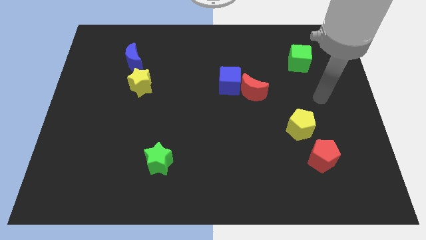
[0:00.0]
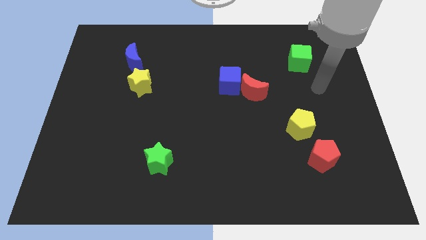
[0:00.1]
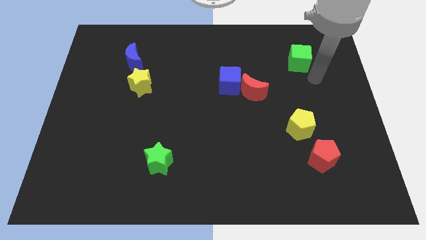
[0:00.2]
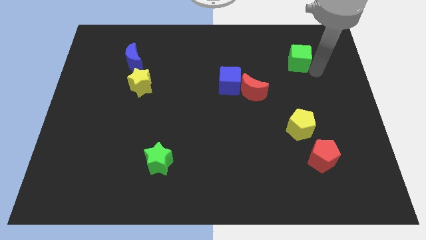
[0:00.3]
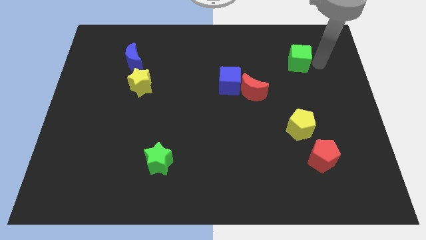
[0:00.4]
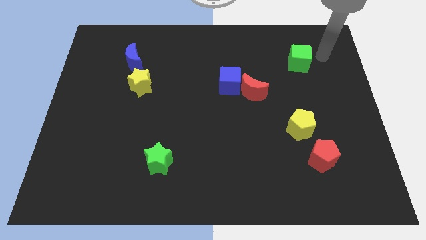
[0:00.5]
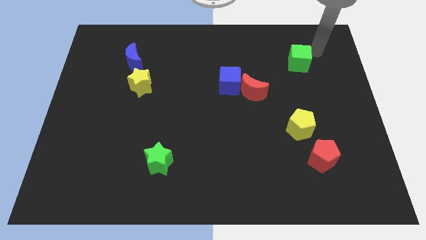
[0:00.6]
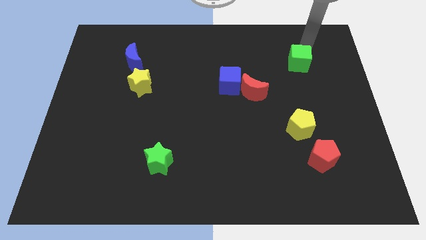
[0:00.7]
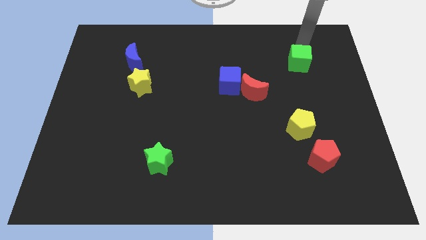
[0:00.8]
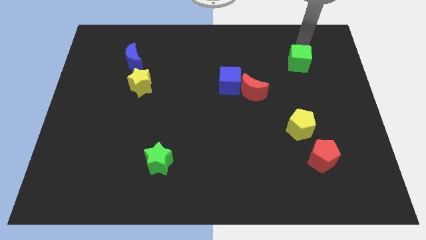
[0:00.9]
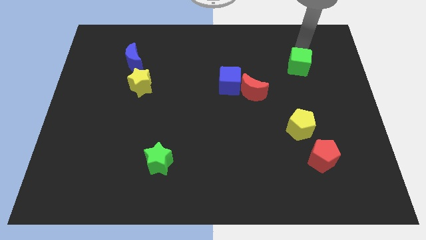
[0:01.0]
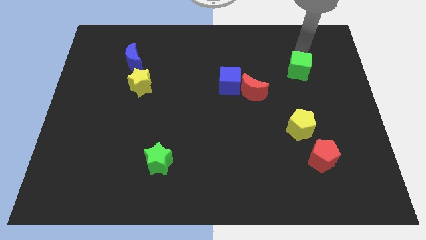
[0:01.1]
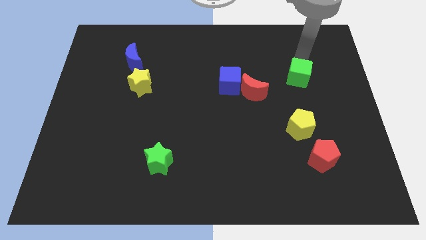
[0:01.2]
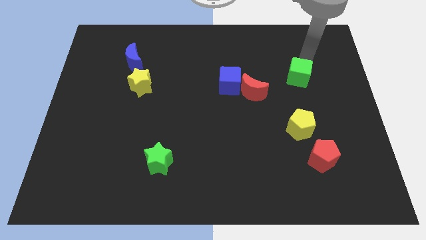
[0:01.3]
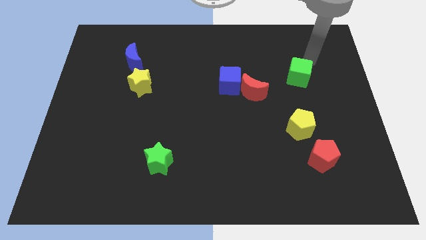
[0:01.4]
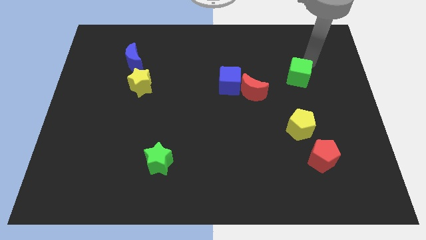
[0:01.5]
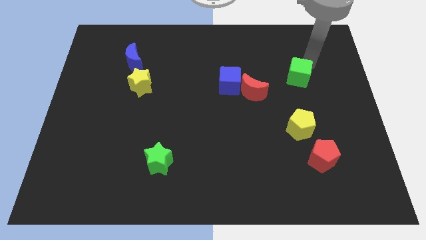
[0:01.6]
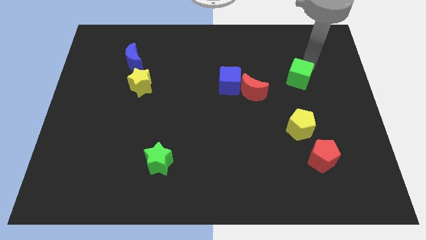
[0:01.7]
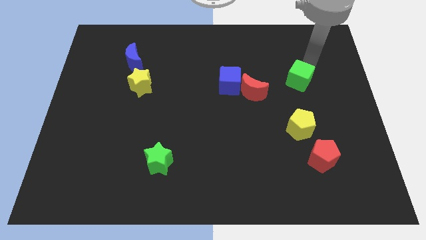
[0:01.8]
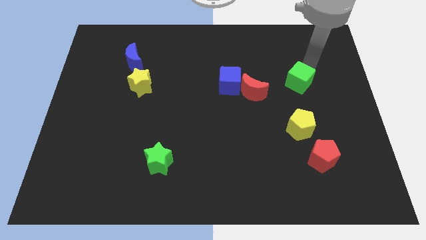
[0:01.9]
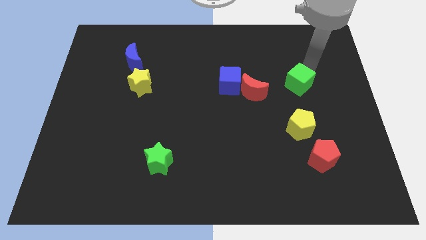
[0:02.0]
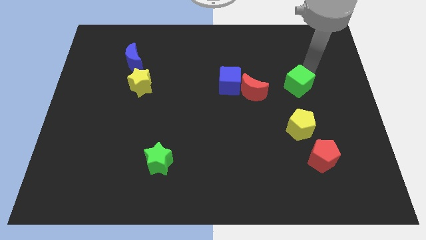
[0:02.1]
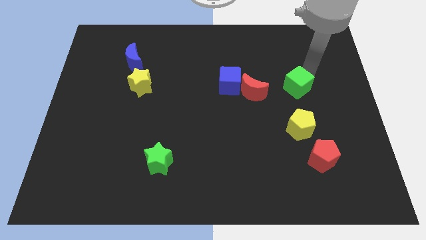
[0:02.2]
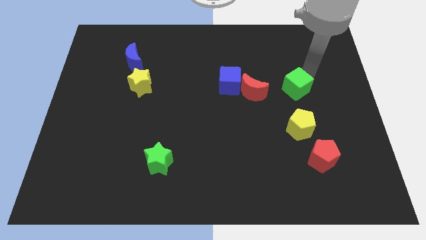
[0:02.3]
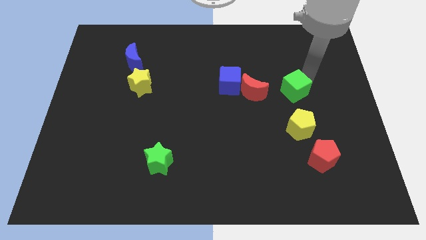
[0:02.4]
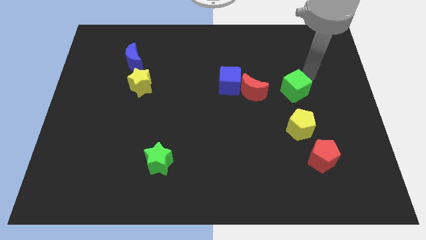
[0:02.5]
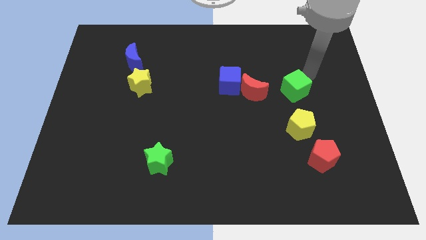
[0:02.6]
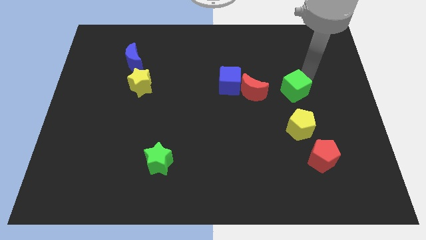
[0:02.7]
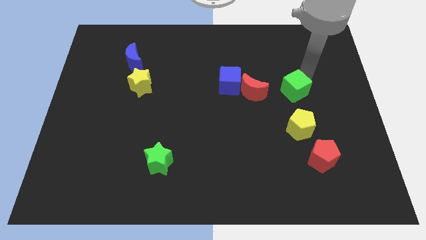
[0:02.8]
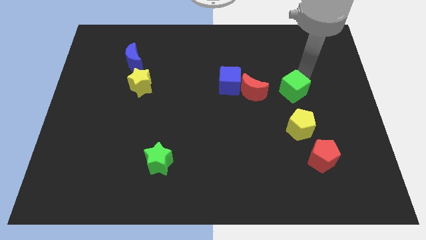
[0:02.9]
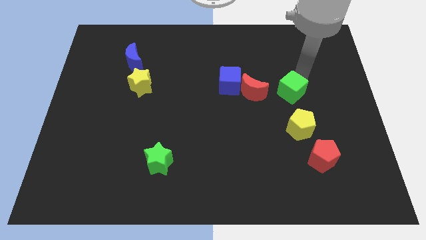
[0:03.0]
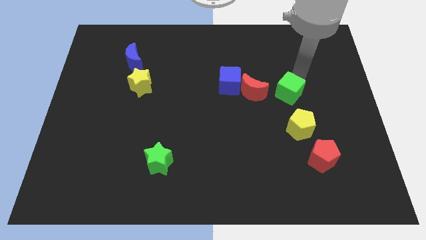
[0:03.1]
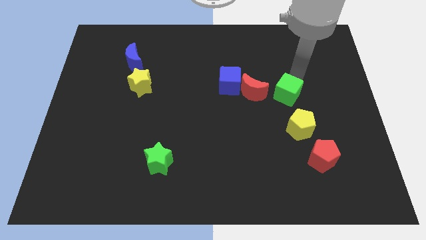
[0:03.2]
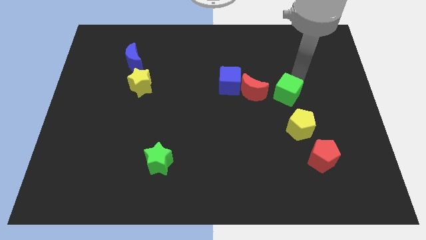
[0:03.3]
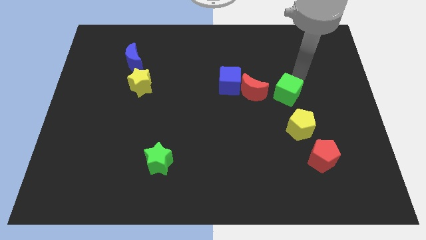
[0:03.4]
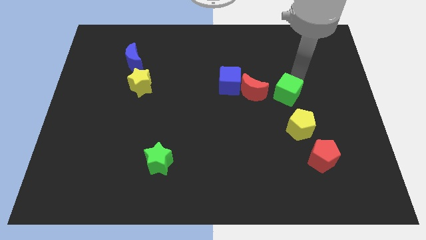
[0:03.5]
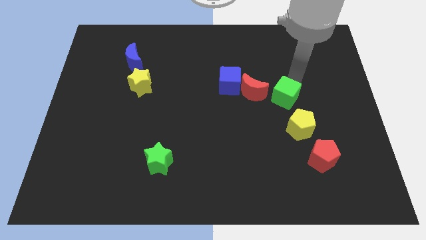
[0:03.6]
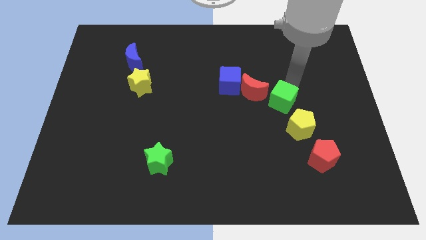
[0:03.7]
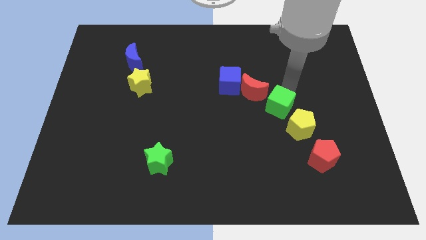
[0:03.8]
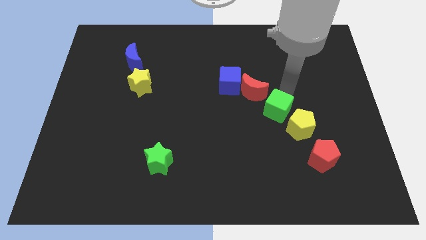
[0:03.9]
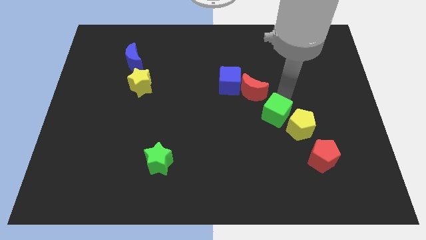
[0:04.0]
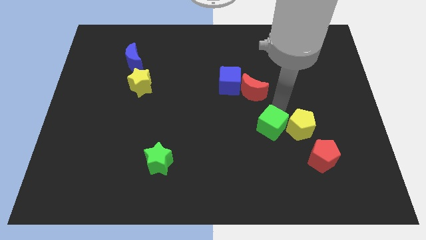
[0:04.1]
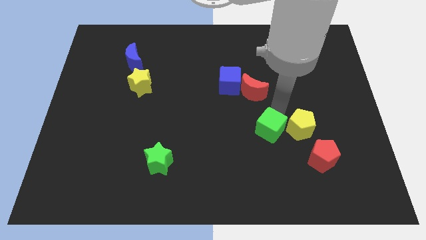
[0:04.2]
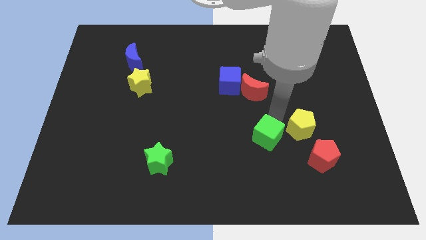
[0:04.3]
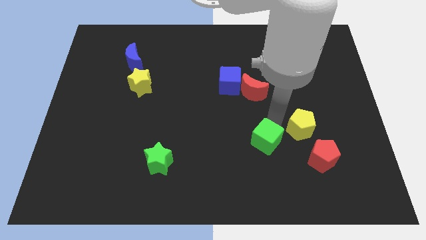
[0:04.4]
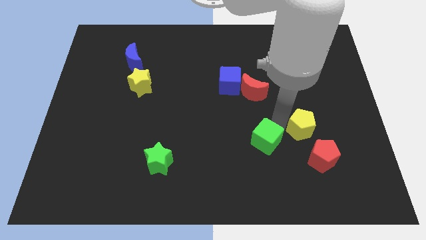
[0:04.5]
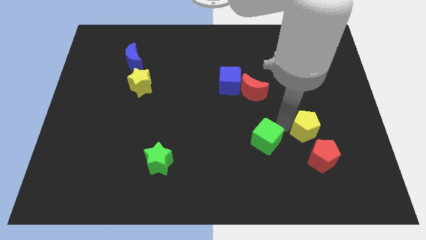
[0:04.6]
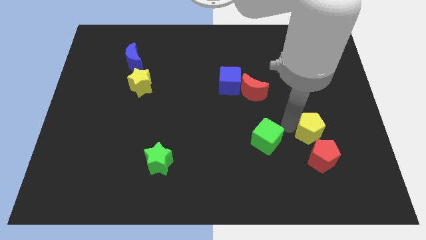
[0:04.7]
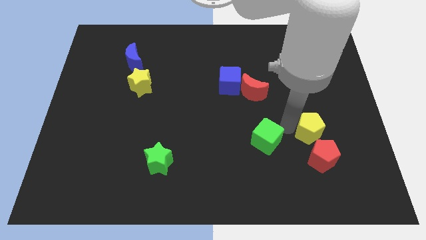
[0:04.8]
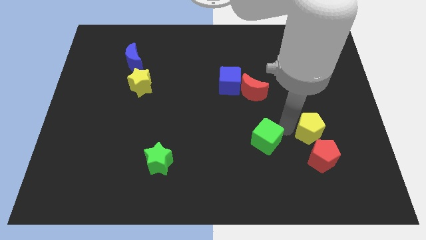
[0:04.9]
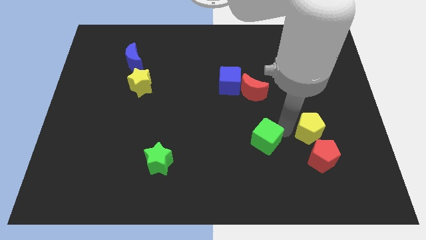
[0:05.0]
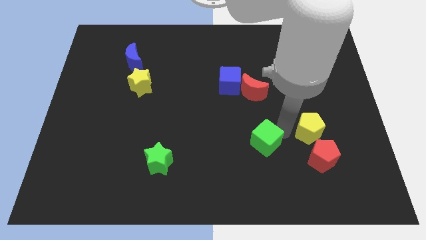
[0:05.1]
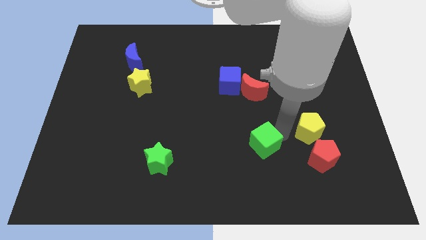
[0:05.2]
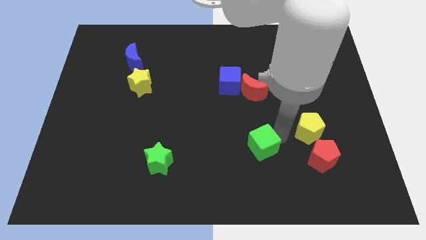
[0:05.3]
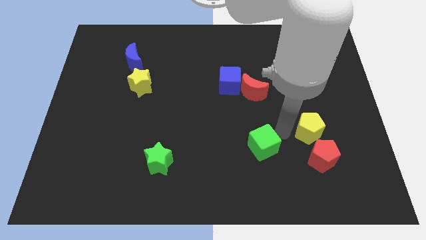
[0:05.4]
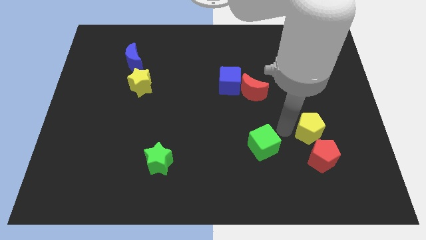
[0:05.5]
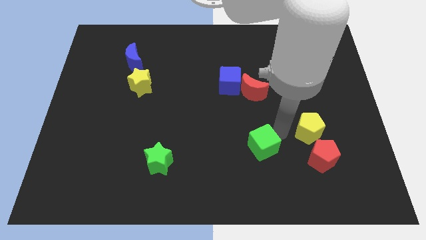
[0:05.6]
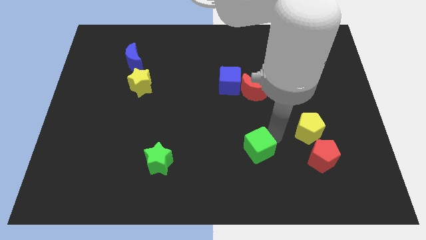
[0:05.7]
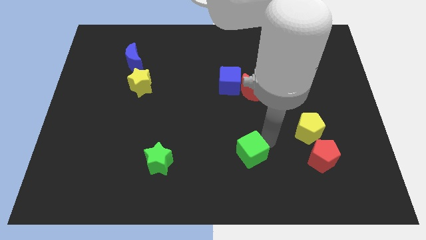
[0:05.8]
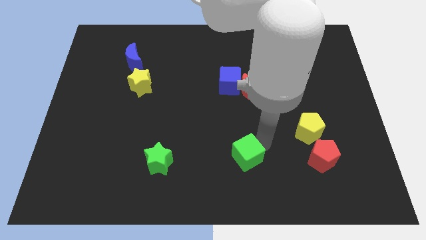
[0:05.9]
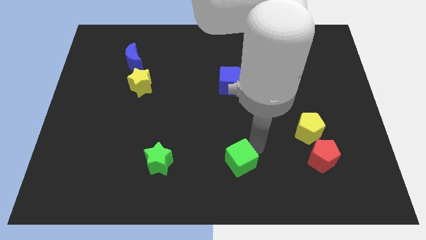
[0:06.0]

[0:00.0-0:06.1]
push the green cube to the bottom side
